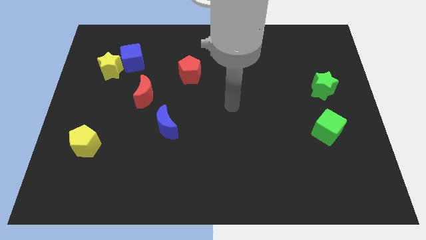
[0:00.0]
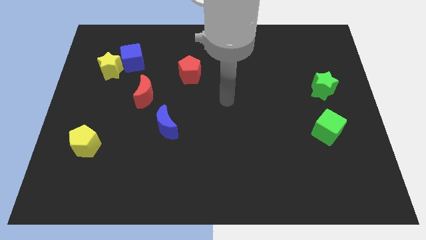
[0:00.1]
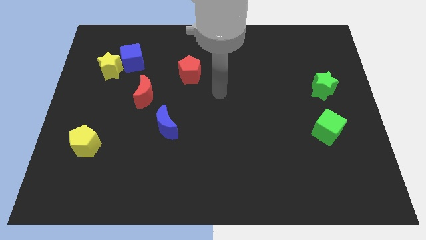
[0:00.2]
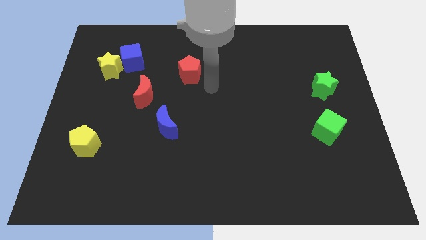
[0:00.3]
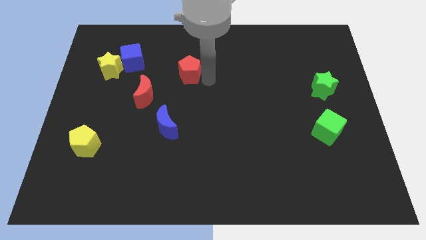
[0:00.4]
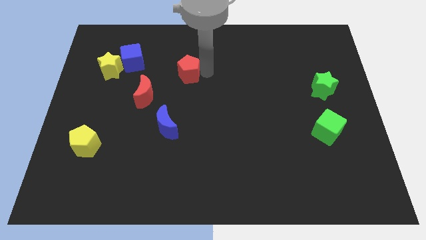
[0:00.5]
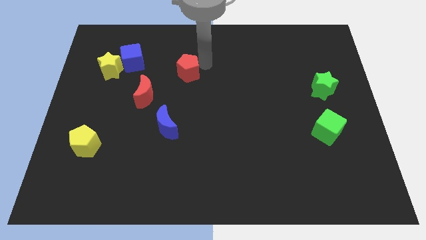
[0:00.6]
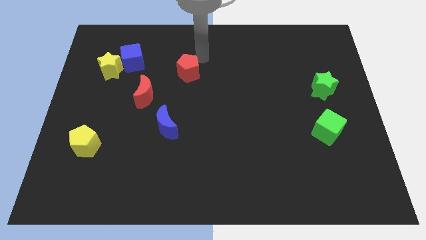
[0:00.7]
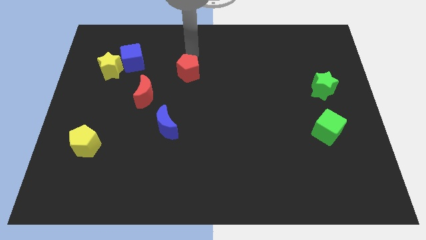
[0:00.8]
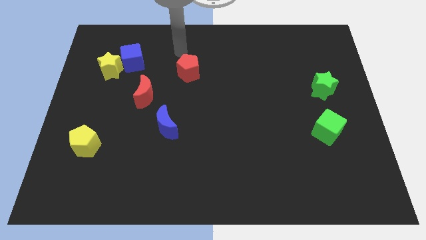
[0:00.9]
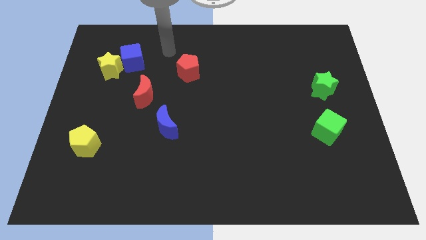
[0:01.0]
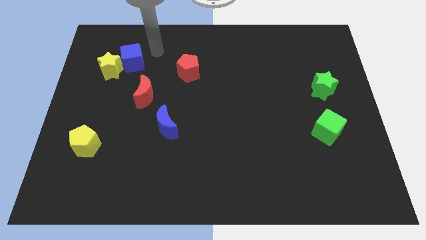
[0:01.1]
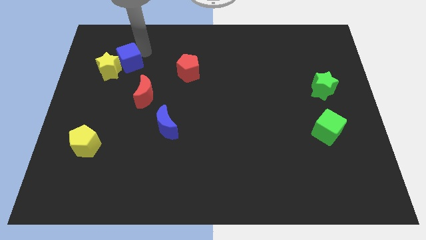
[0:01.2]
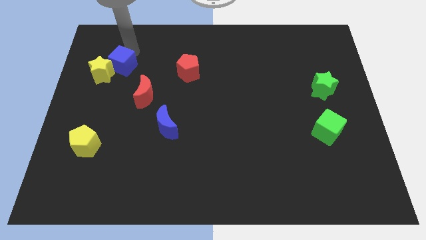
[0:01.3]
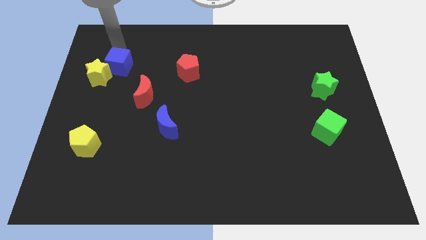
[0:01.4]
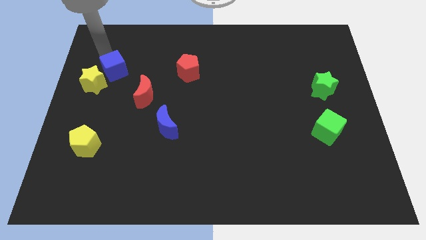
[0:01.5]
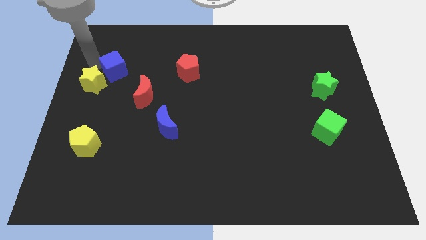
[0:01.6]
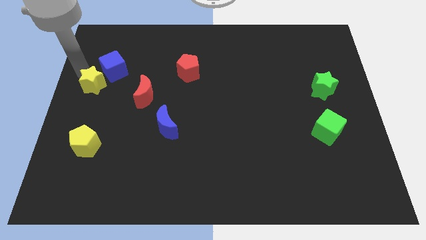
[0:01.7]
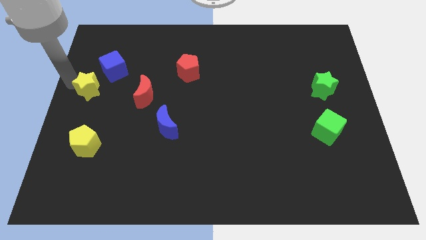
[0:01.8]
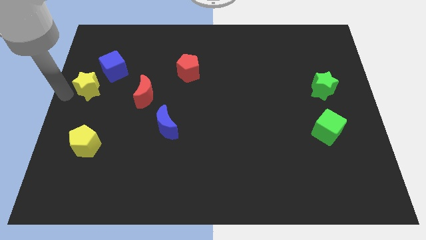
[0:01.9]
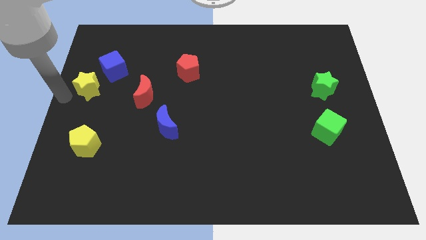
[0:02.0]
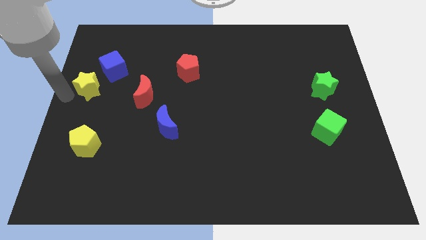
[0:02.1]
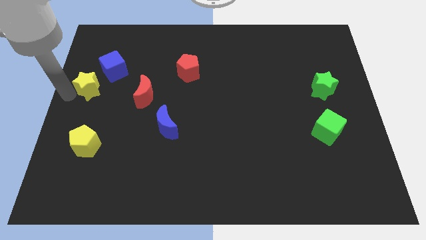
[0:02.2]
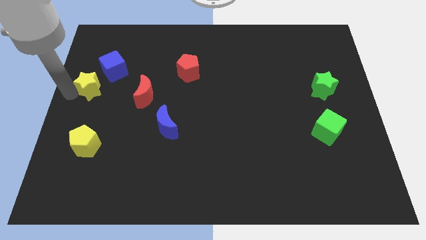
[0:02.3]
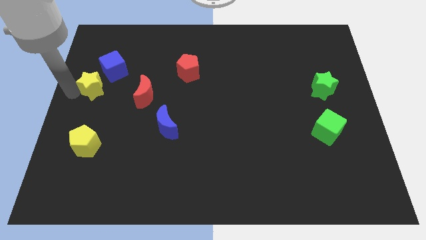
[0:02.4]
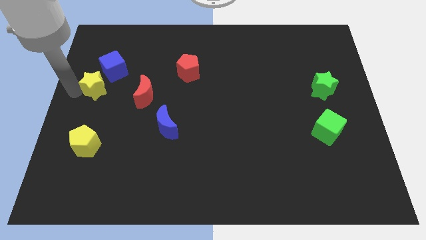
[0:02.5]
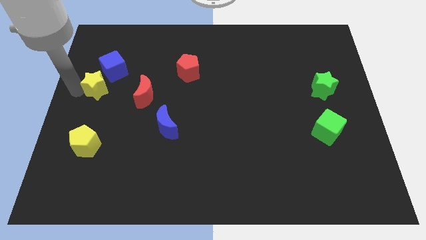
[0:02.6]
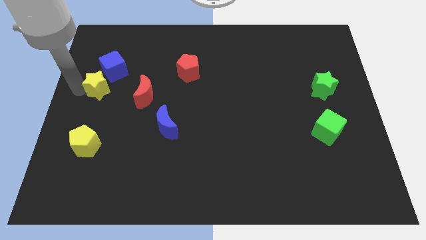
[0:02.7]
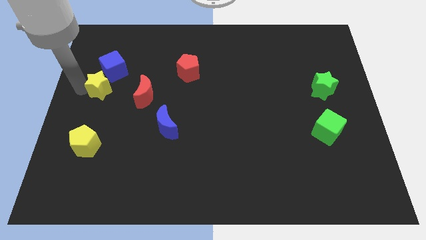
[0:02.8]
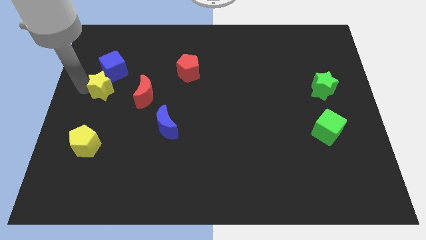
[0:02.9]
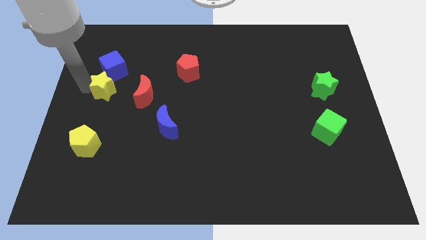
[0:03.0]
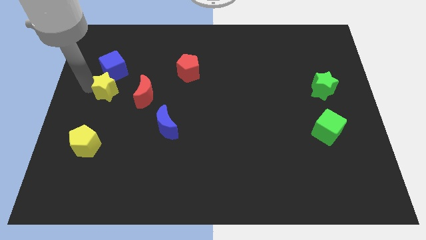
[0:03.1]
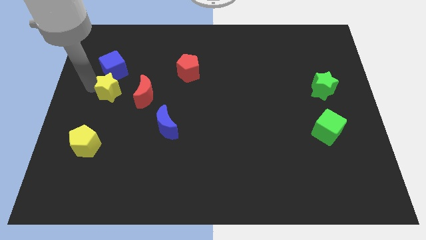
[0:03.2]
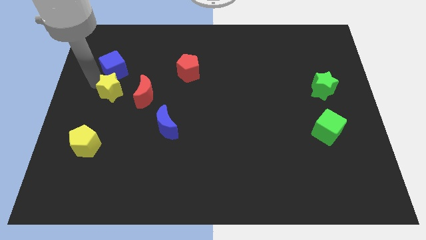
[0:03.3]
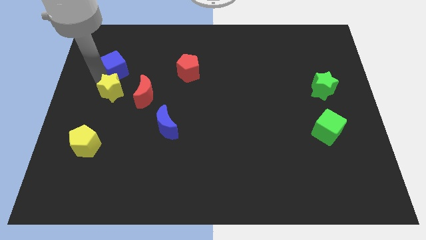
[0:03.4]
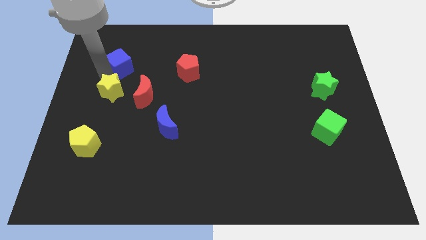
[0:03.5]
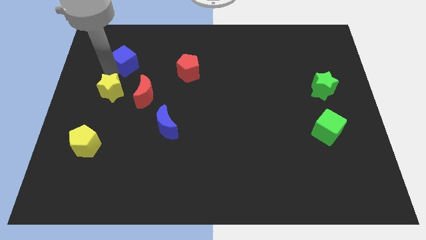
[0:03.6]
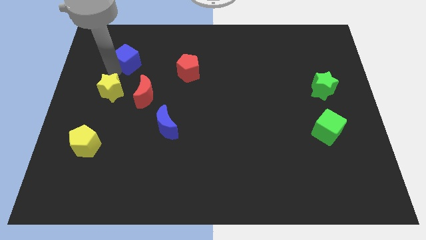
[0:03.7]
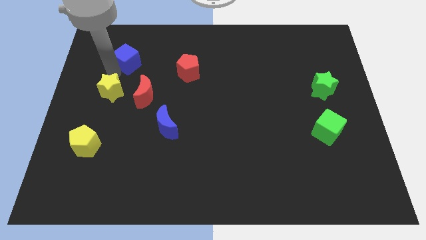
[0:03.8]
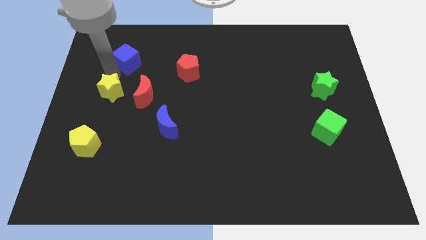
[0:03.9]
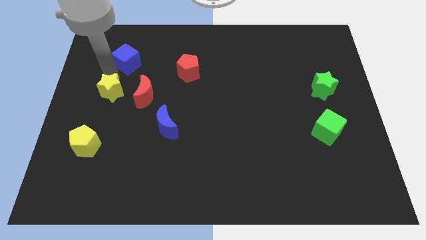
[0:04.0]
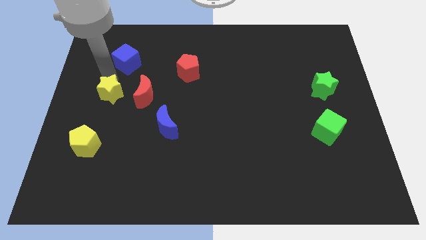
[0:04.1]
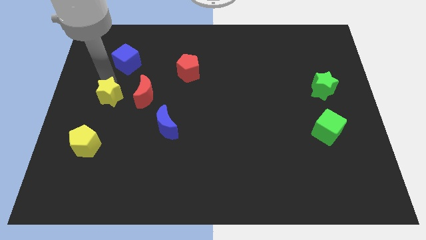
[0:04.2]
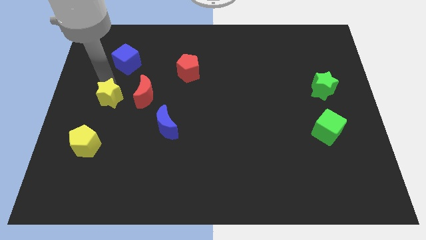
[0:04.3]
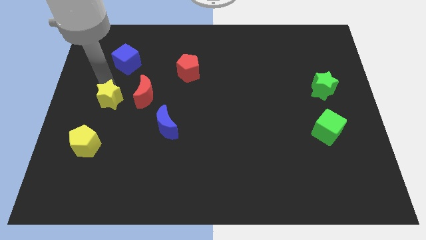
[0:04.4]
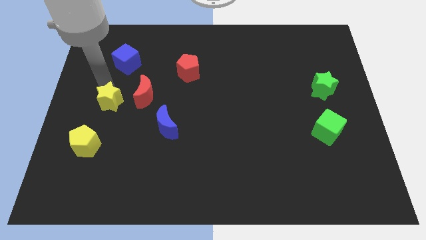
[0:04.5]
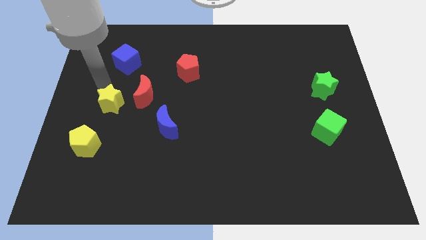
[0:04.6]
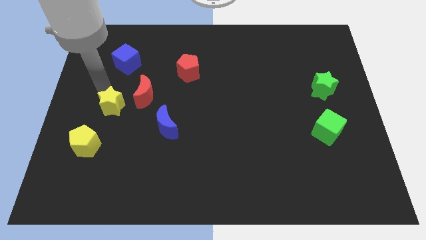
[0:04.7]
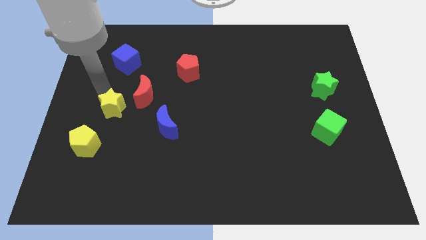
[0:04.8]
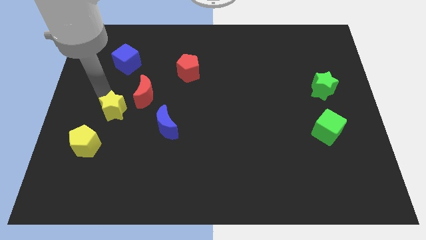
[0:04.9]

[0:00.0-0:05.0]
push the yellow star just left of the blue moon

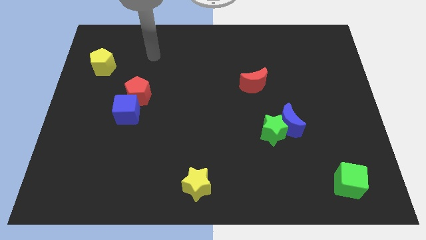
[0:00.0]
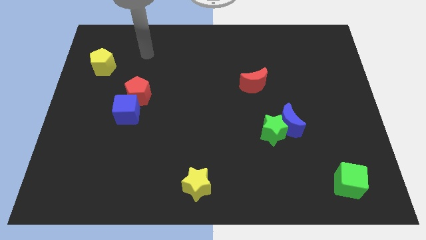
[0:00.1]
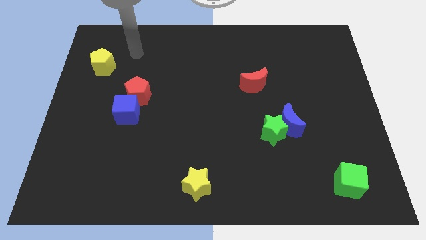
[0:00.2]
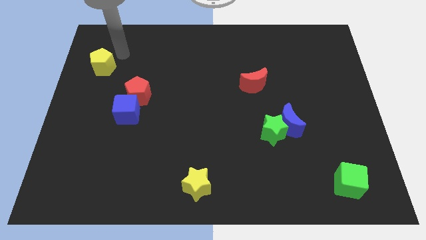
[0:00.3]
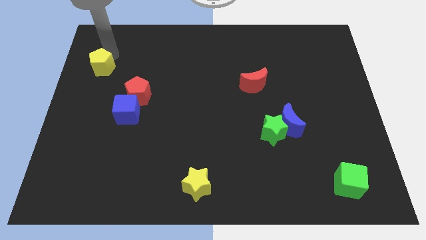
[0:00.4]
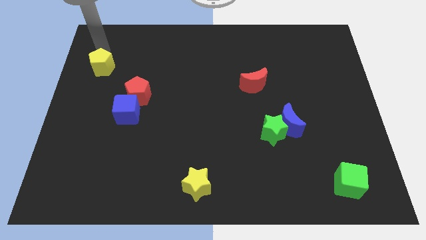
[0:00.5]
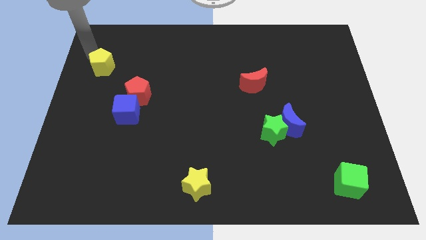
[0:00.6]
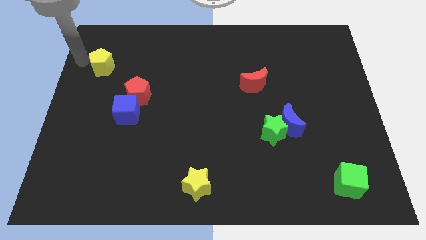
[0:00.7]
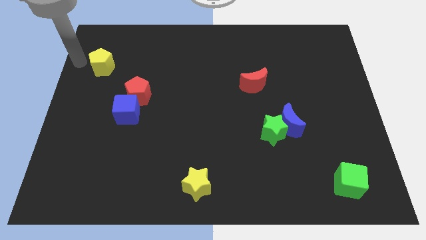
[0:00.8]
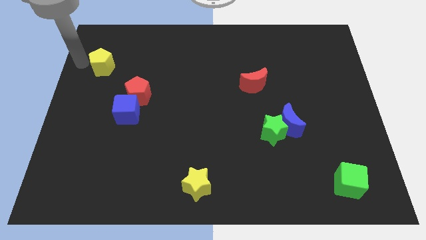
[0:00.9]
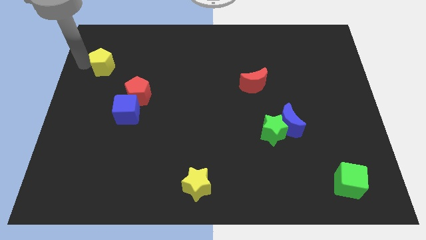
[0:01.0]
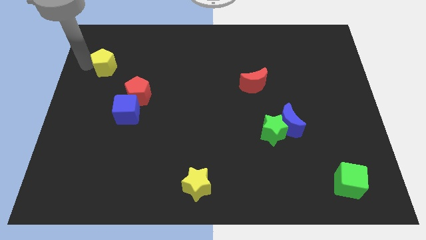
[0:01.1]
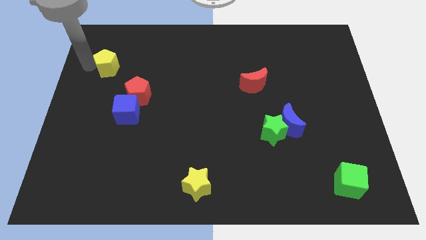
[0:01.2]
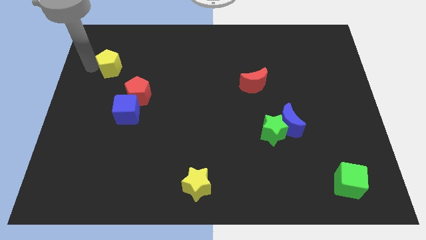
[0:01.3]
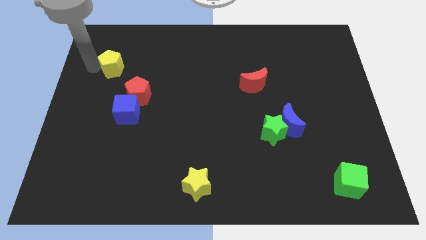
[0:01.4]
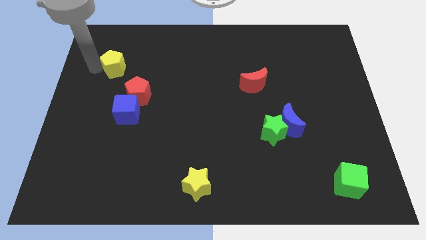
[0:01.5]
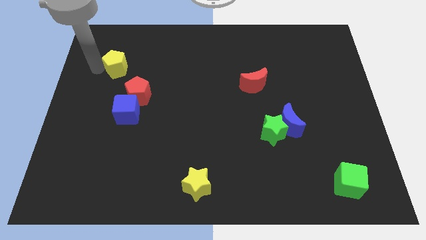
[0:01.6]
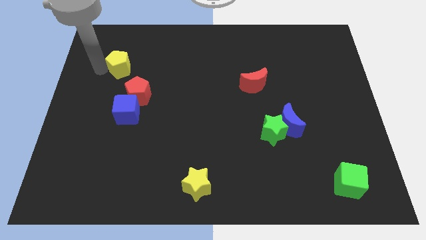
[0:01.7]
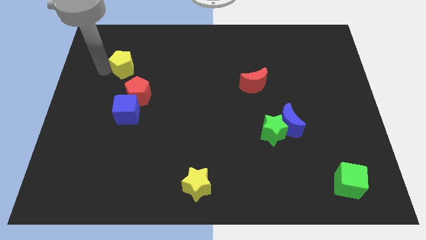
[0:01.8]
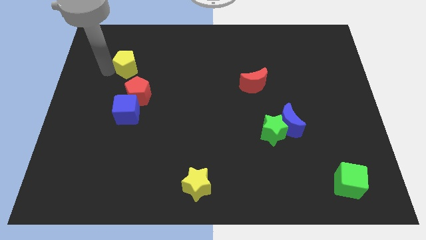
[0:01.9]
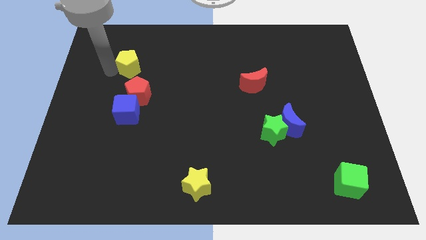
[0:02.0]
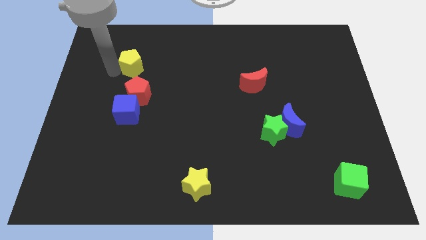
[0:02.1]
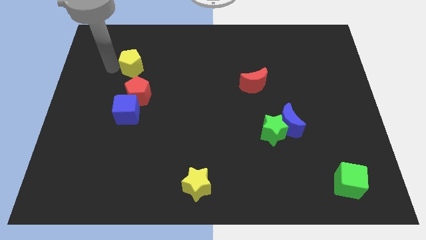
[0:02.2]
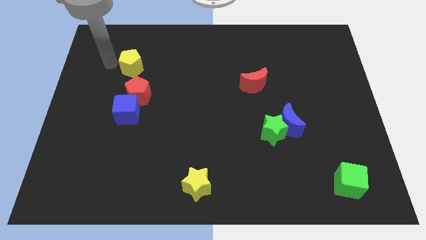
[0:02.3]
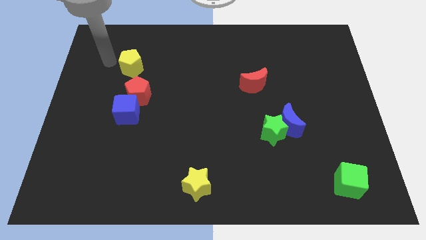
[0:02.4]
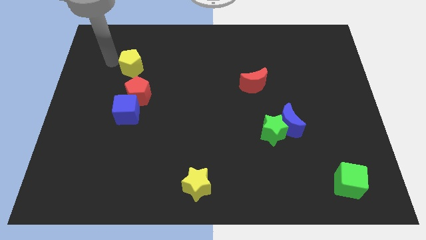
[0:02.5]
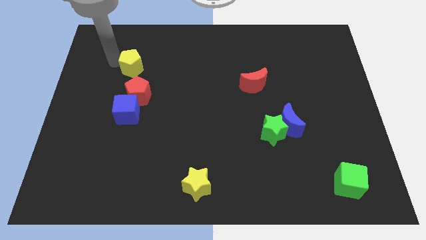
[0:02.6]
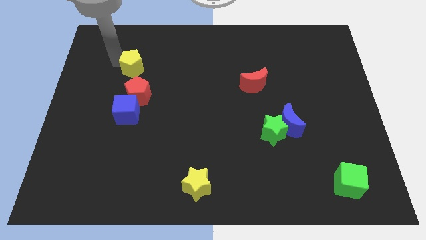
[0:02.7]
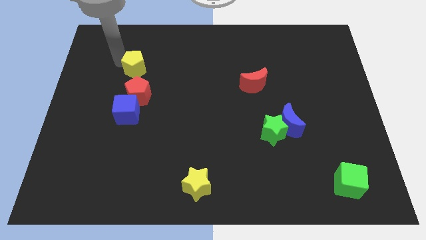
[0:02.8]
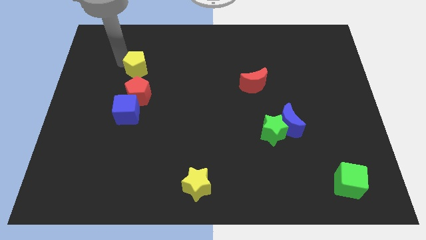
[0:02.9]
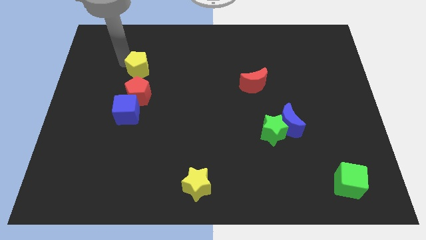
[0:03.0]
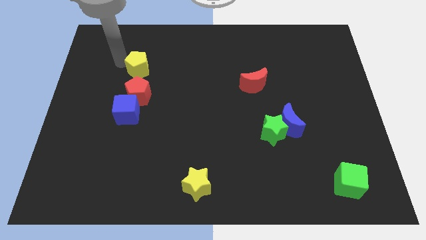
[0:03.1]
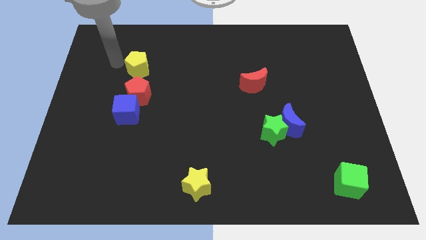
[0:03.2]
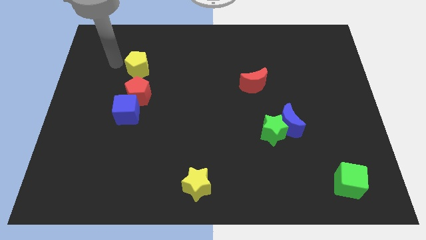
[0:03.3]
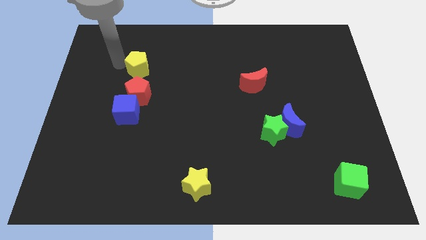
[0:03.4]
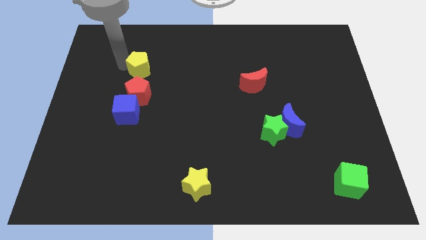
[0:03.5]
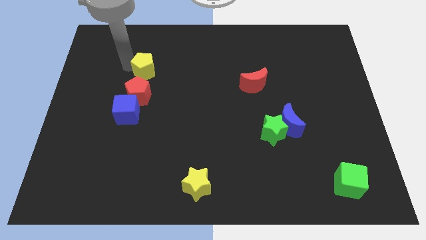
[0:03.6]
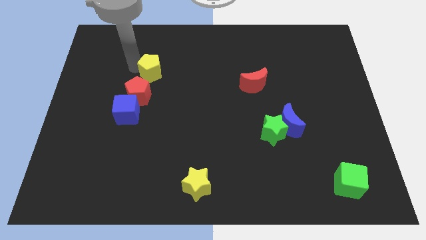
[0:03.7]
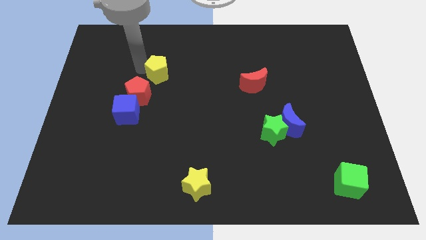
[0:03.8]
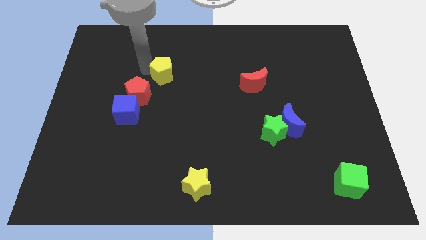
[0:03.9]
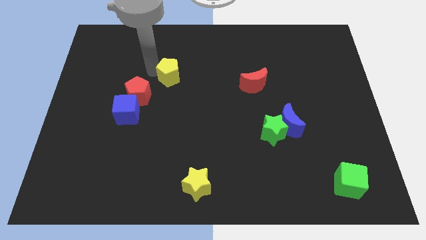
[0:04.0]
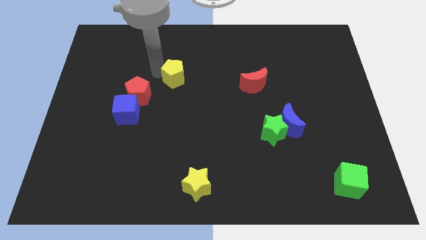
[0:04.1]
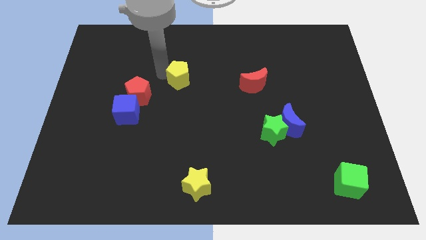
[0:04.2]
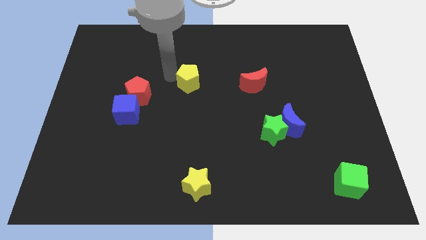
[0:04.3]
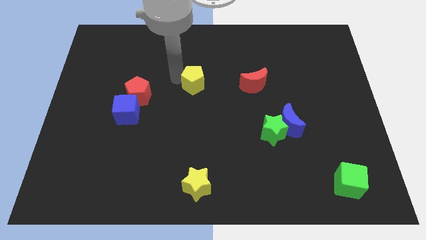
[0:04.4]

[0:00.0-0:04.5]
put the yellow pentagon left of the red moon
